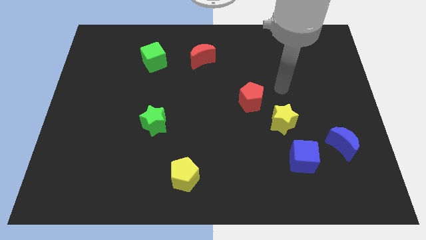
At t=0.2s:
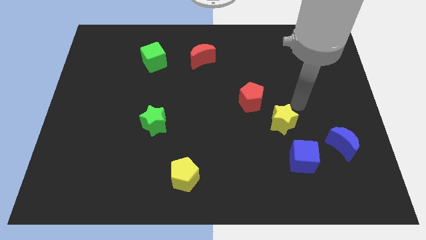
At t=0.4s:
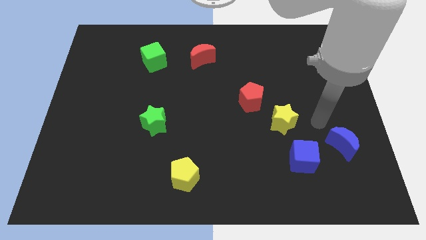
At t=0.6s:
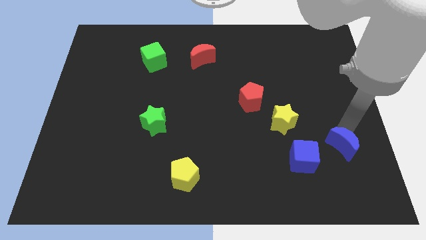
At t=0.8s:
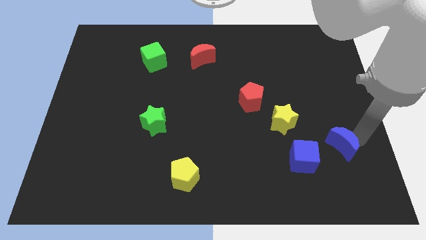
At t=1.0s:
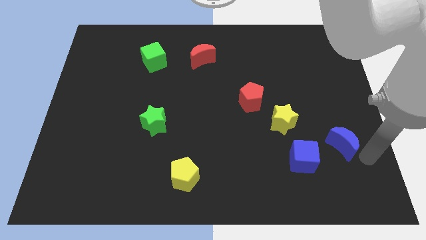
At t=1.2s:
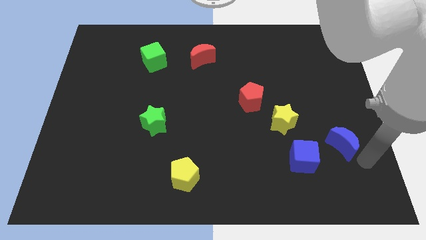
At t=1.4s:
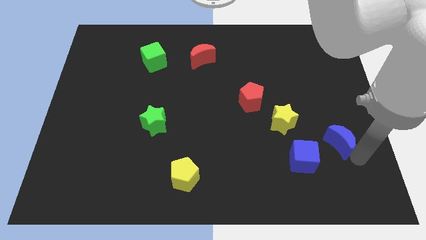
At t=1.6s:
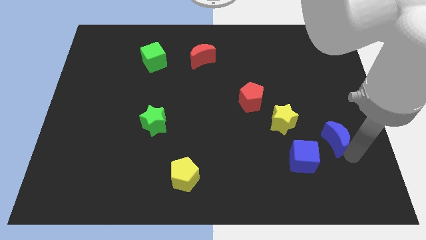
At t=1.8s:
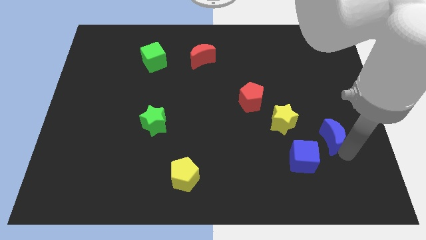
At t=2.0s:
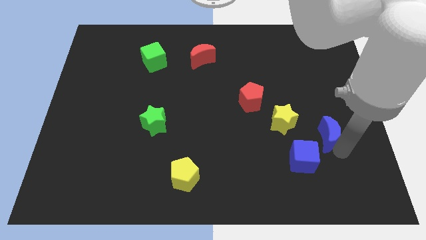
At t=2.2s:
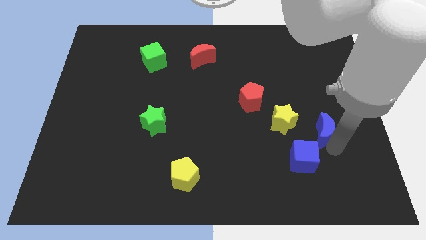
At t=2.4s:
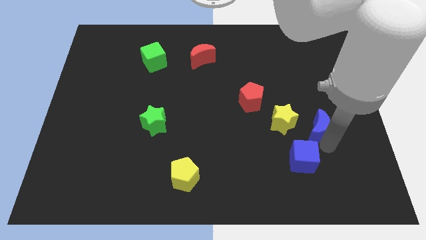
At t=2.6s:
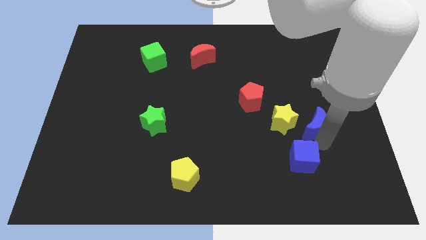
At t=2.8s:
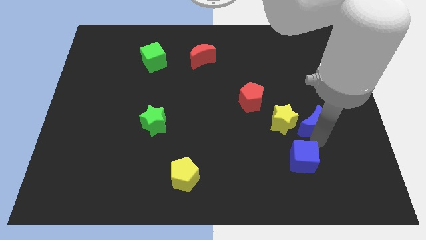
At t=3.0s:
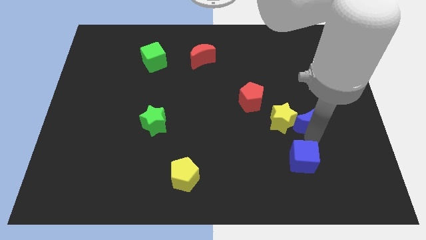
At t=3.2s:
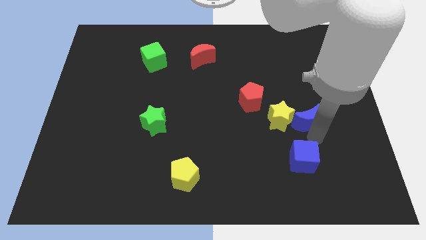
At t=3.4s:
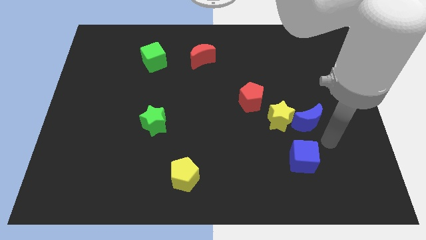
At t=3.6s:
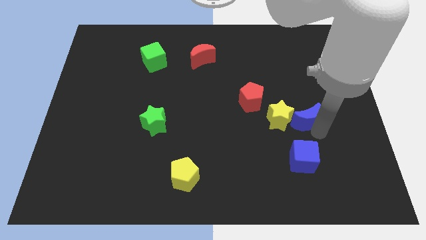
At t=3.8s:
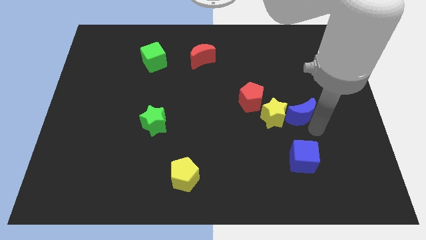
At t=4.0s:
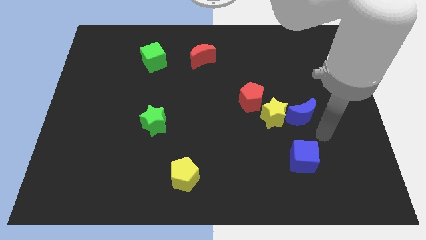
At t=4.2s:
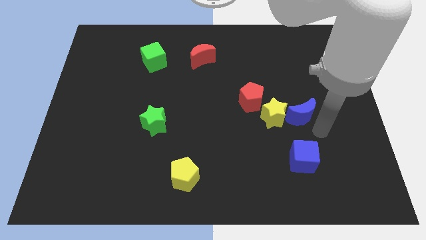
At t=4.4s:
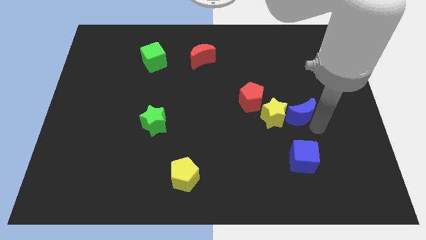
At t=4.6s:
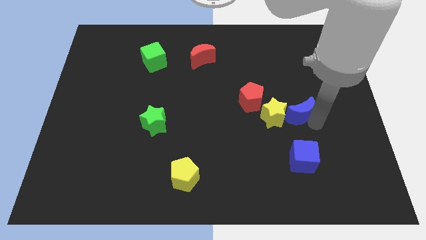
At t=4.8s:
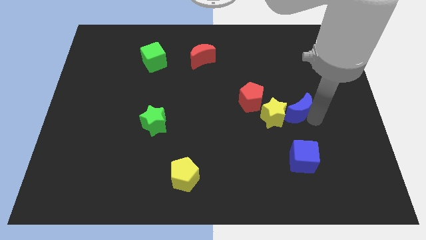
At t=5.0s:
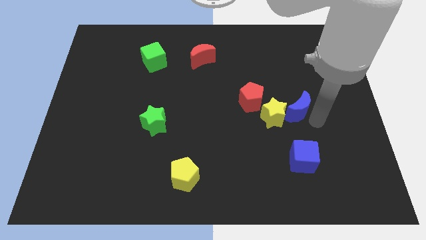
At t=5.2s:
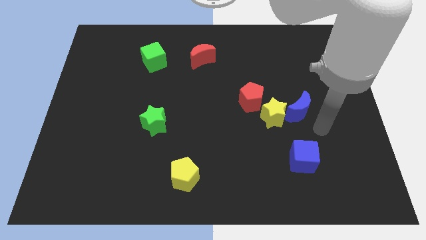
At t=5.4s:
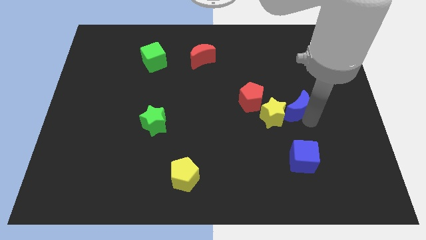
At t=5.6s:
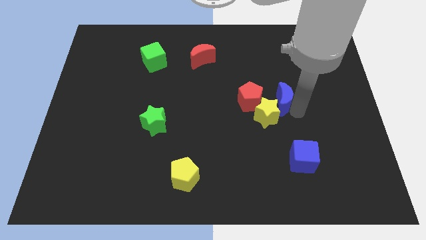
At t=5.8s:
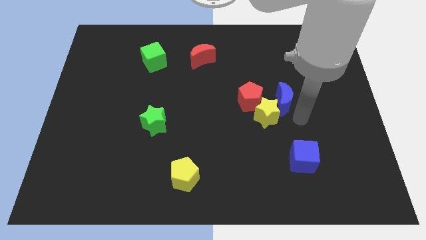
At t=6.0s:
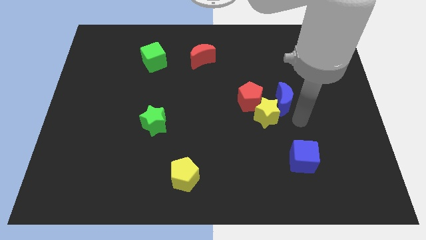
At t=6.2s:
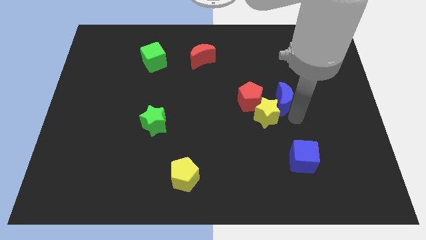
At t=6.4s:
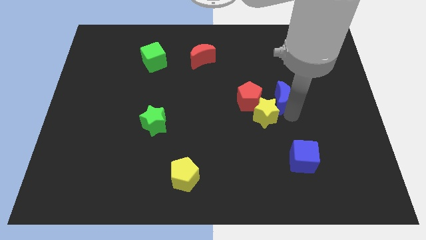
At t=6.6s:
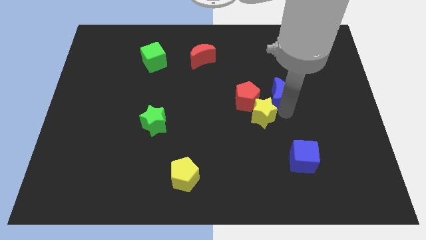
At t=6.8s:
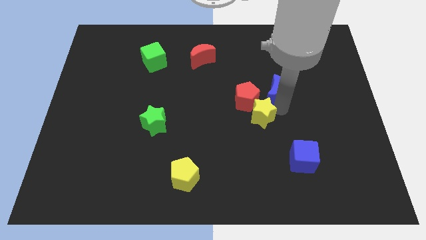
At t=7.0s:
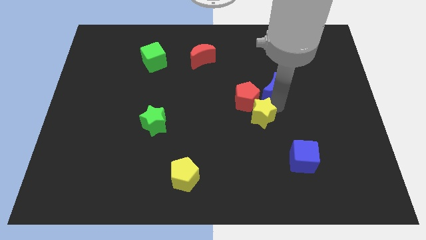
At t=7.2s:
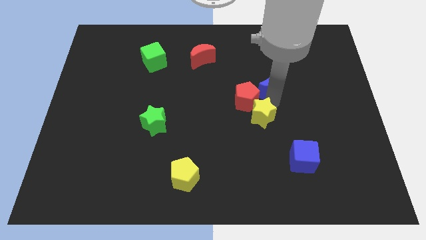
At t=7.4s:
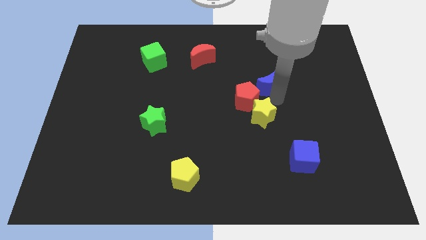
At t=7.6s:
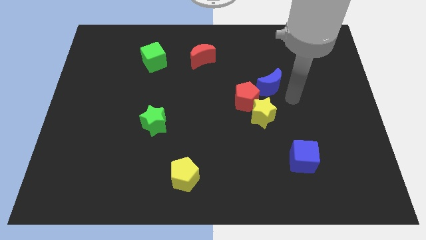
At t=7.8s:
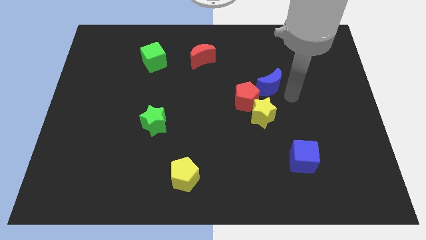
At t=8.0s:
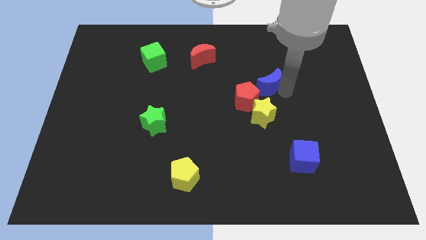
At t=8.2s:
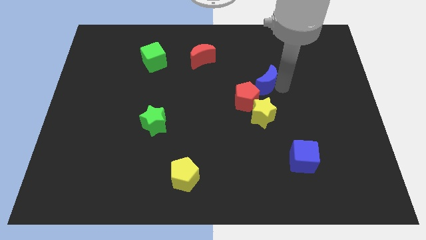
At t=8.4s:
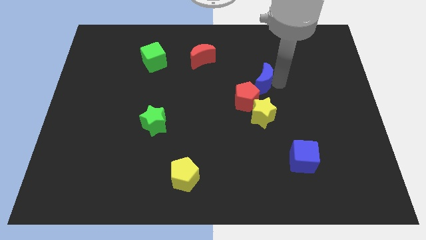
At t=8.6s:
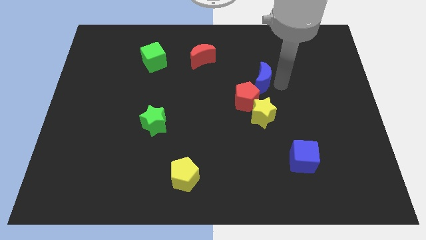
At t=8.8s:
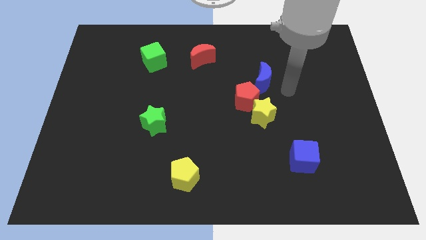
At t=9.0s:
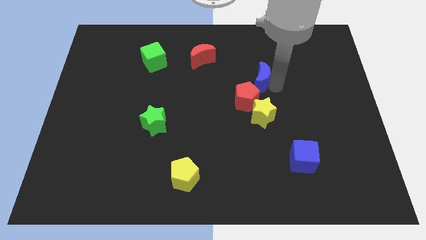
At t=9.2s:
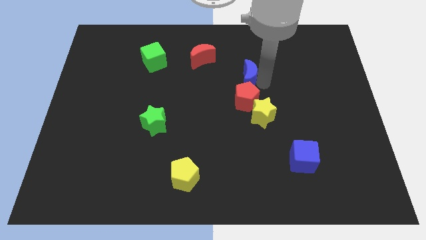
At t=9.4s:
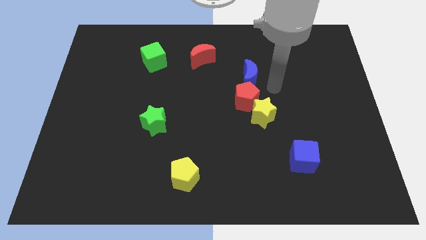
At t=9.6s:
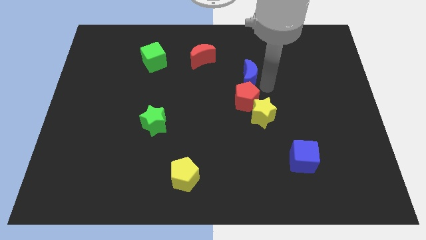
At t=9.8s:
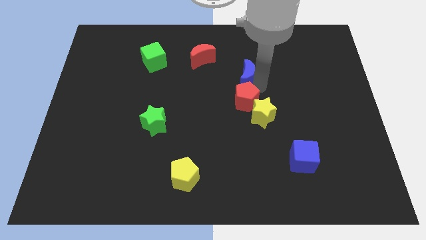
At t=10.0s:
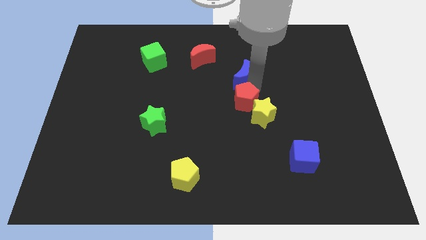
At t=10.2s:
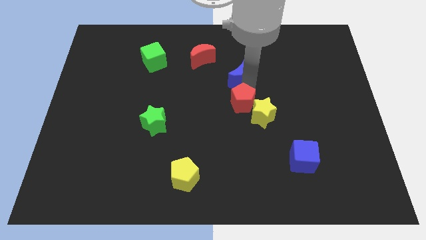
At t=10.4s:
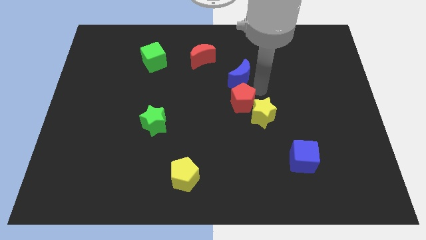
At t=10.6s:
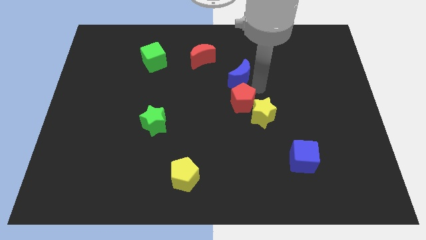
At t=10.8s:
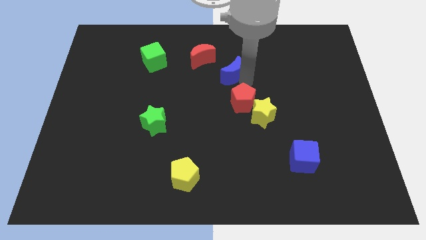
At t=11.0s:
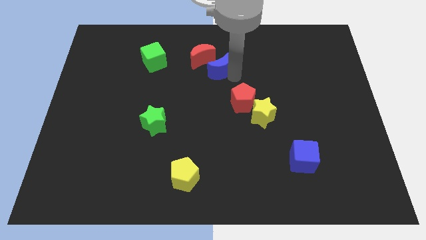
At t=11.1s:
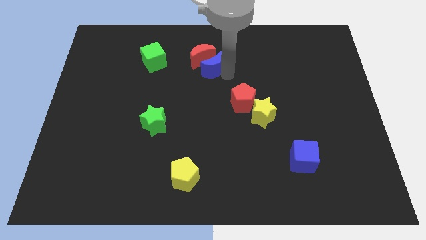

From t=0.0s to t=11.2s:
move the blue moon to the red moon

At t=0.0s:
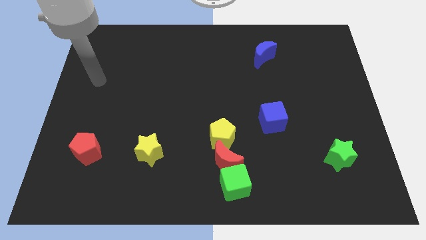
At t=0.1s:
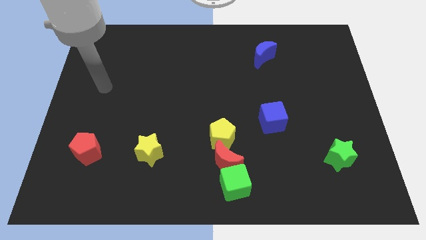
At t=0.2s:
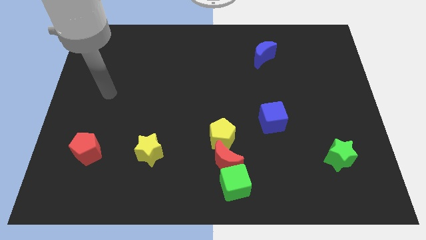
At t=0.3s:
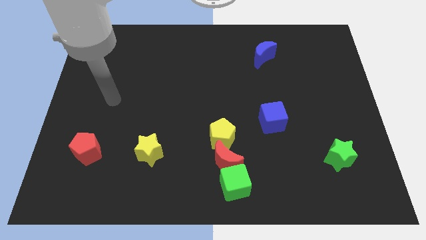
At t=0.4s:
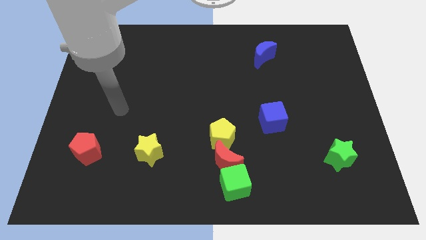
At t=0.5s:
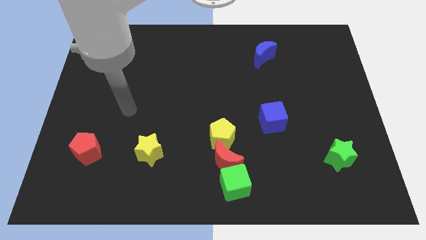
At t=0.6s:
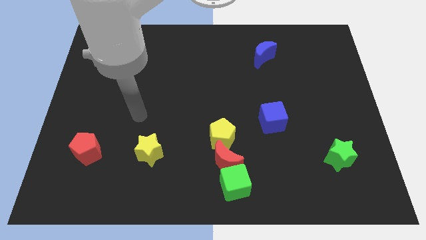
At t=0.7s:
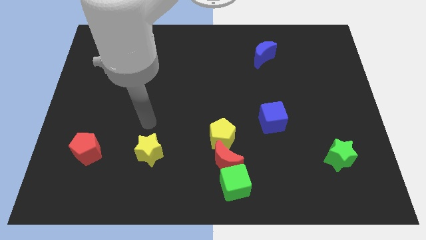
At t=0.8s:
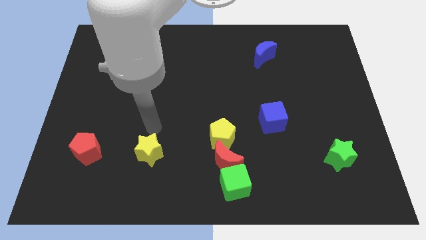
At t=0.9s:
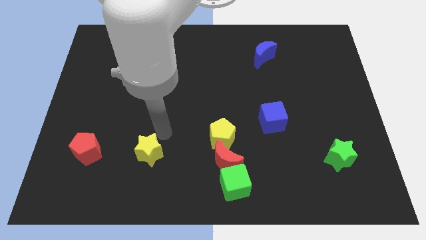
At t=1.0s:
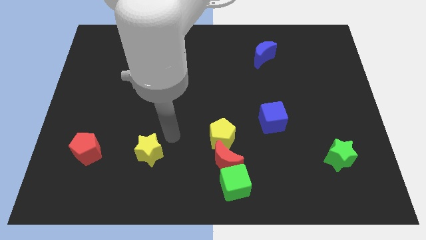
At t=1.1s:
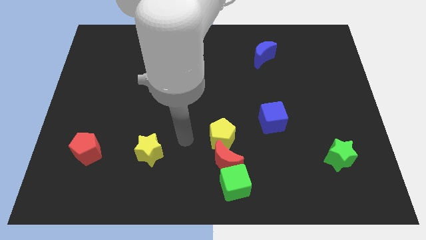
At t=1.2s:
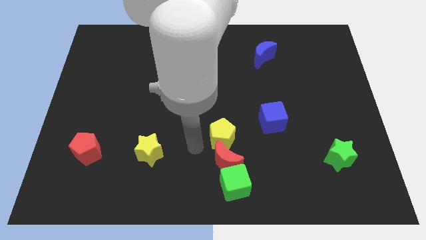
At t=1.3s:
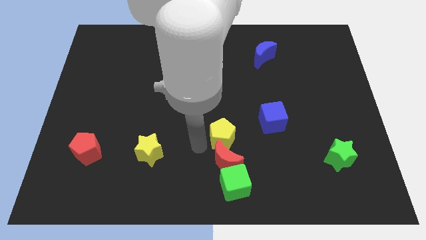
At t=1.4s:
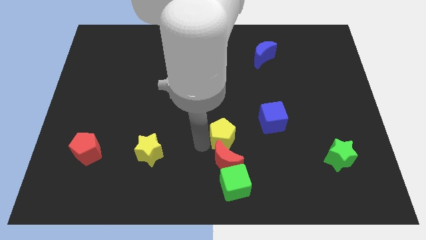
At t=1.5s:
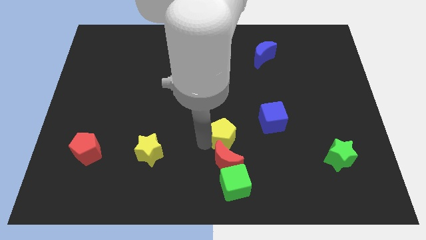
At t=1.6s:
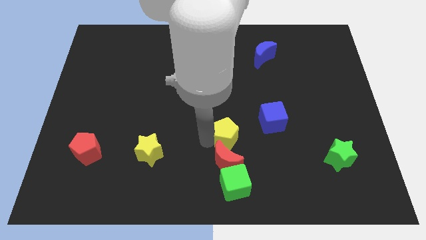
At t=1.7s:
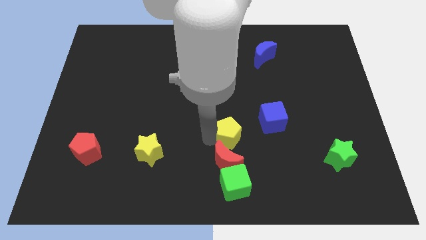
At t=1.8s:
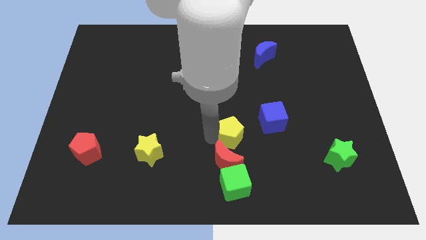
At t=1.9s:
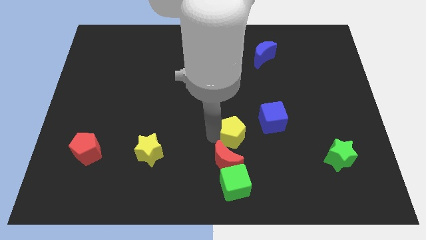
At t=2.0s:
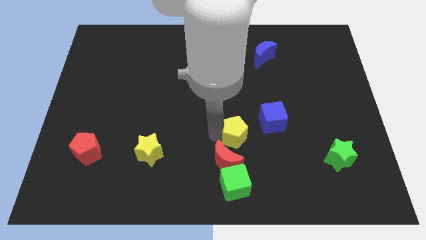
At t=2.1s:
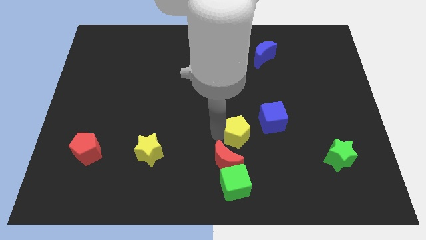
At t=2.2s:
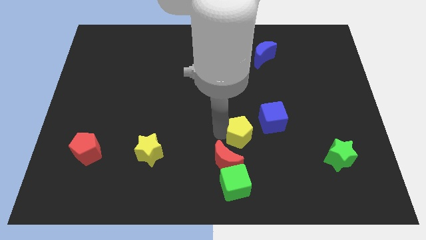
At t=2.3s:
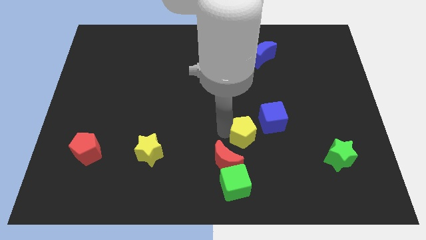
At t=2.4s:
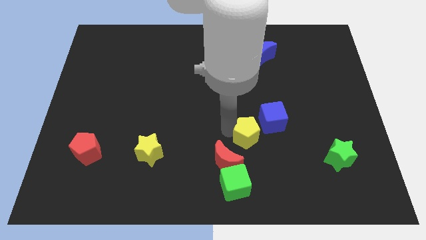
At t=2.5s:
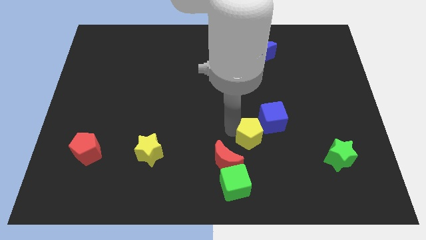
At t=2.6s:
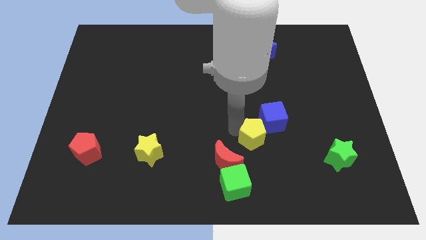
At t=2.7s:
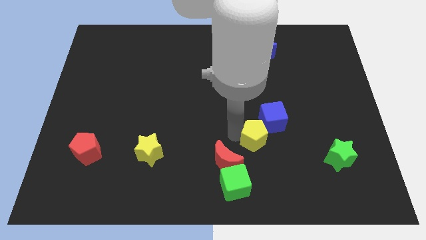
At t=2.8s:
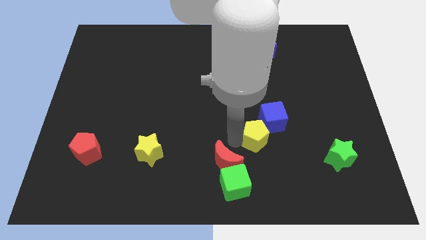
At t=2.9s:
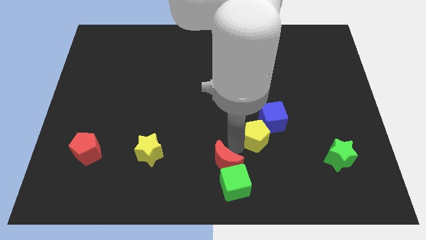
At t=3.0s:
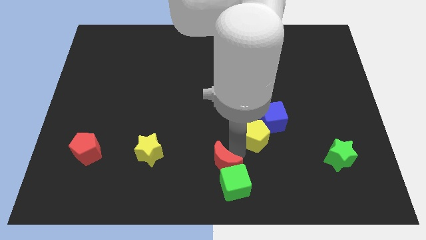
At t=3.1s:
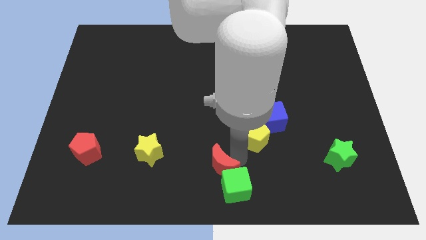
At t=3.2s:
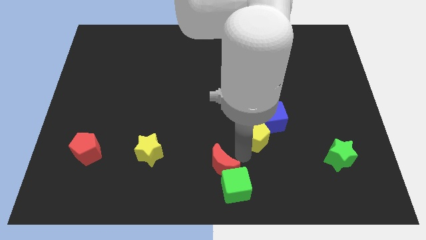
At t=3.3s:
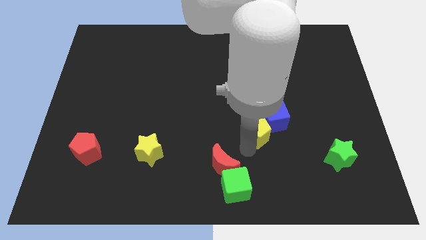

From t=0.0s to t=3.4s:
move the yellow pentagon close to the blue cube
